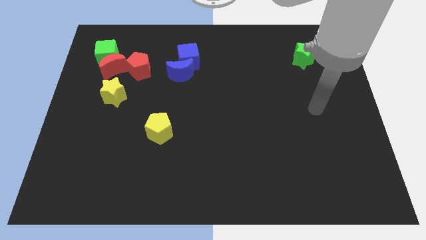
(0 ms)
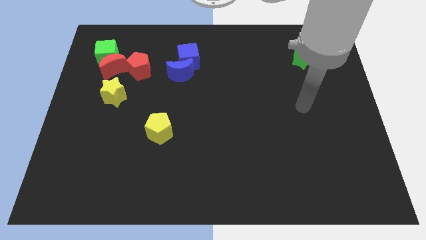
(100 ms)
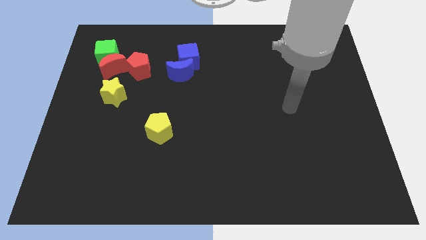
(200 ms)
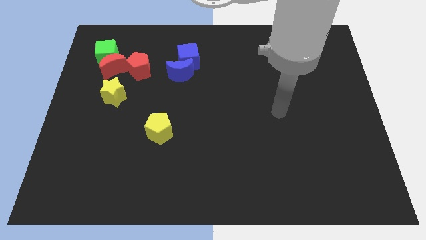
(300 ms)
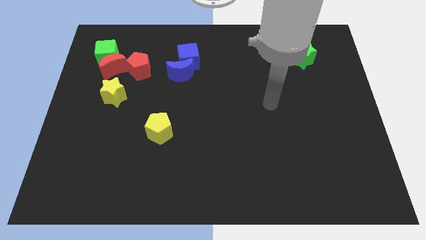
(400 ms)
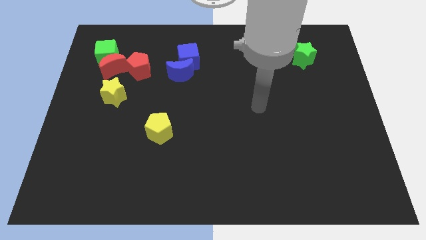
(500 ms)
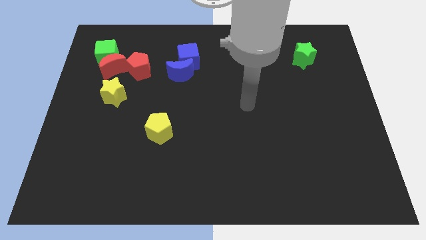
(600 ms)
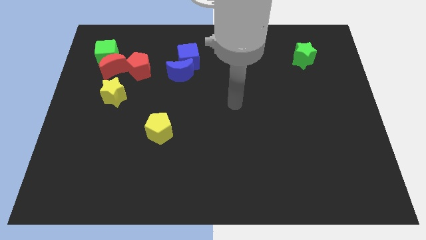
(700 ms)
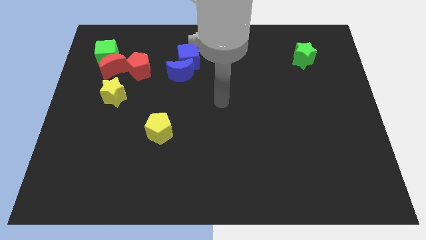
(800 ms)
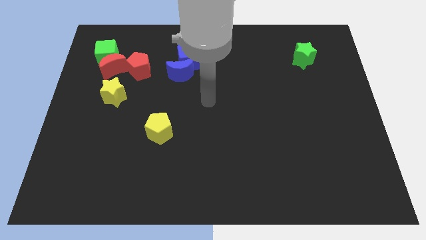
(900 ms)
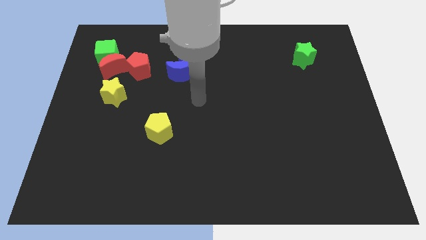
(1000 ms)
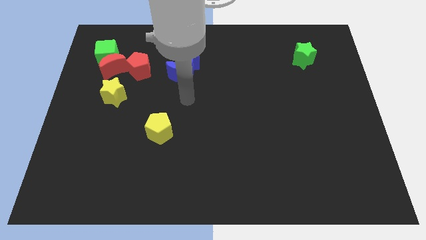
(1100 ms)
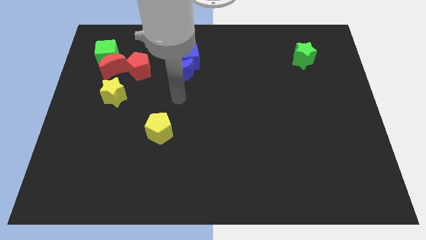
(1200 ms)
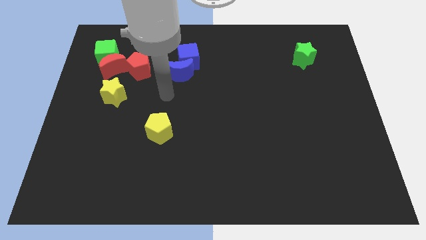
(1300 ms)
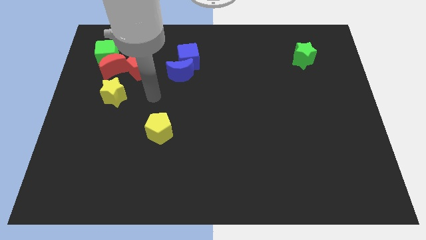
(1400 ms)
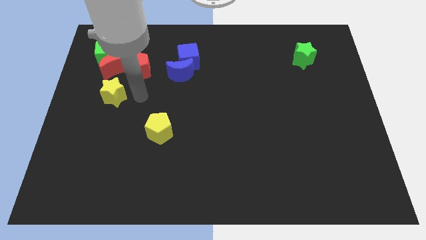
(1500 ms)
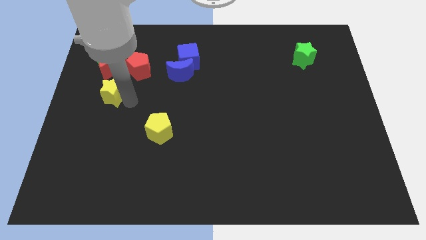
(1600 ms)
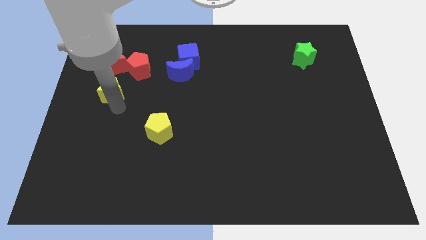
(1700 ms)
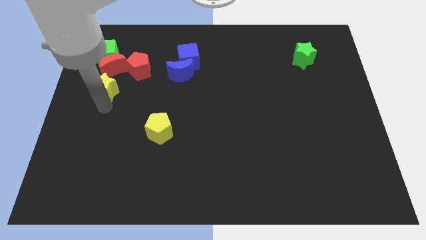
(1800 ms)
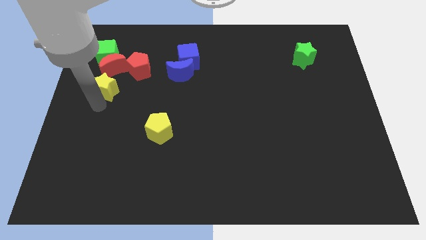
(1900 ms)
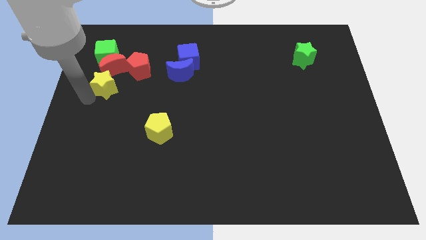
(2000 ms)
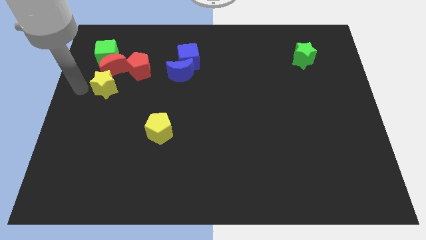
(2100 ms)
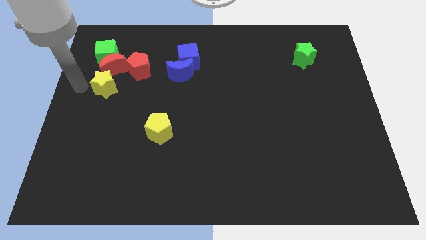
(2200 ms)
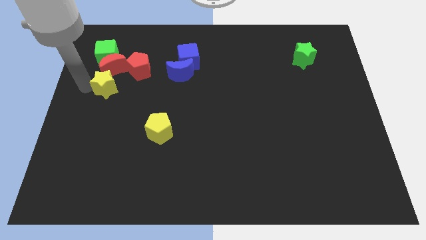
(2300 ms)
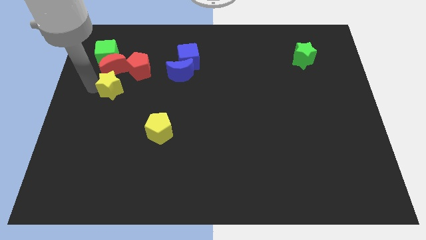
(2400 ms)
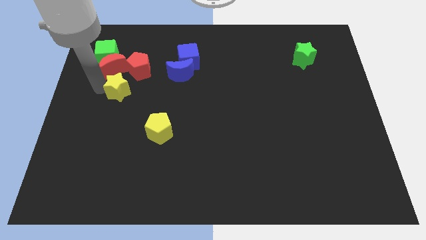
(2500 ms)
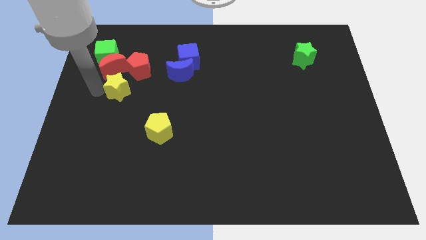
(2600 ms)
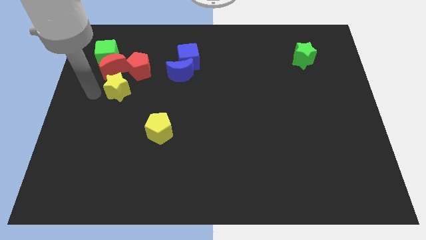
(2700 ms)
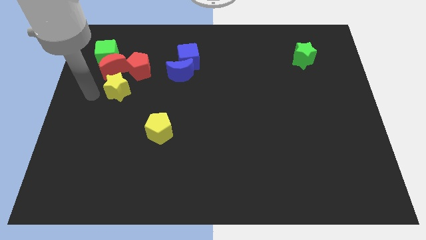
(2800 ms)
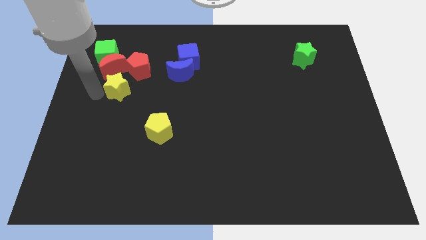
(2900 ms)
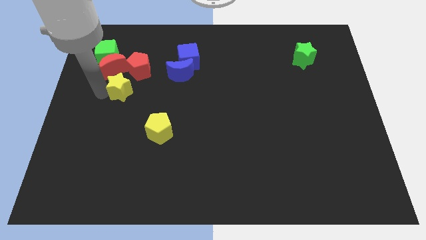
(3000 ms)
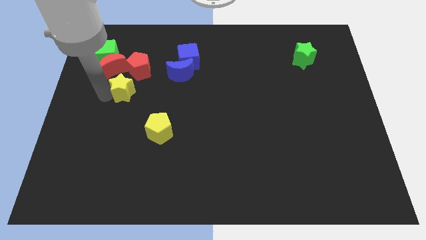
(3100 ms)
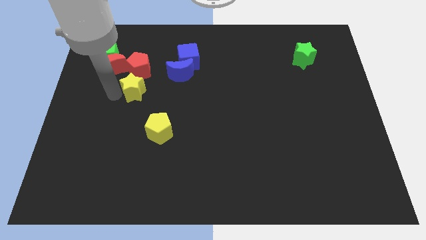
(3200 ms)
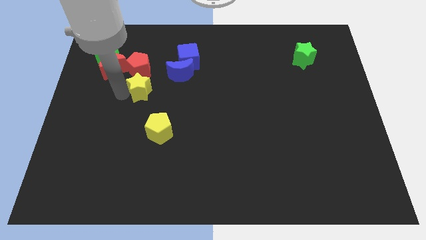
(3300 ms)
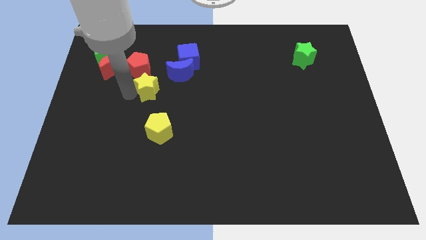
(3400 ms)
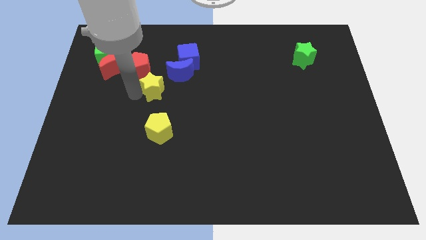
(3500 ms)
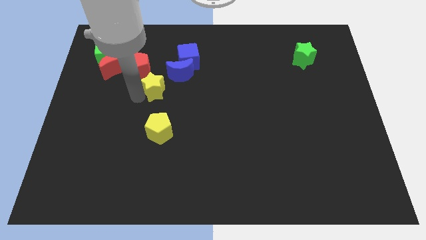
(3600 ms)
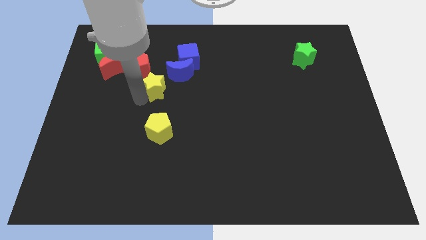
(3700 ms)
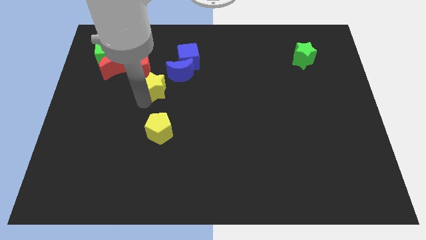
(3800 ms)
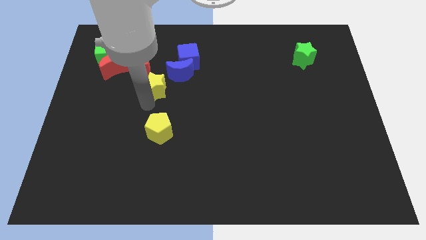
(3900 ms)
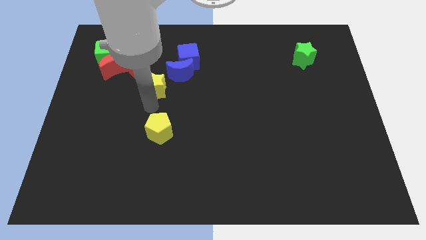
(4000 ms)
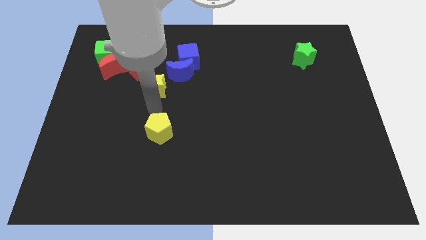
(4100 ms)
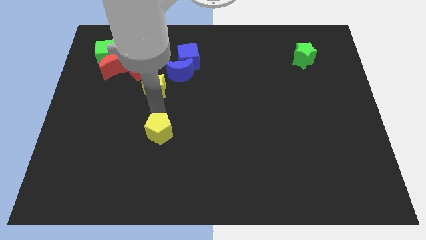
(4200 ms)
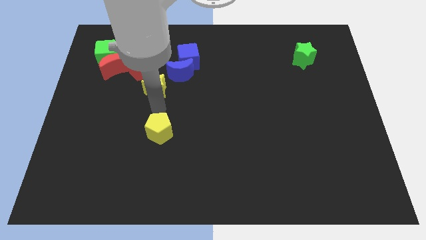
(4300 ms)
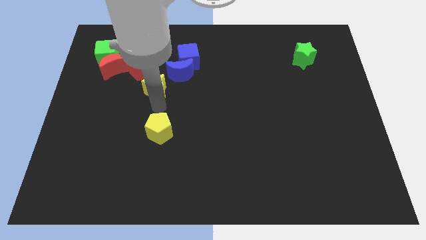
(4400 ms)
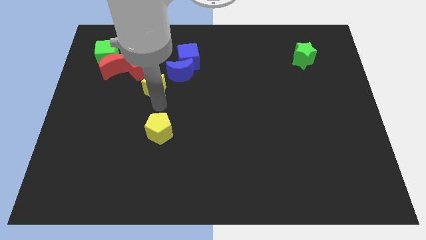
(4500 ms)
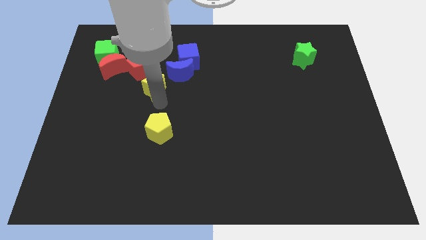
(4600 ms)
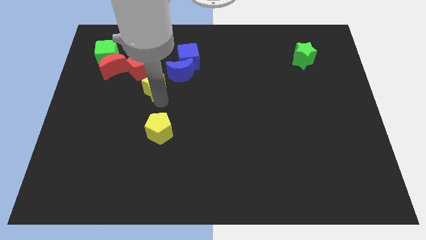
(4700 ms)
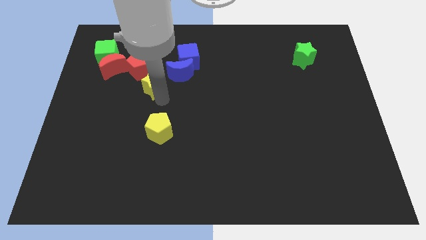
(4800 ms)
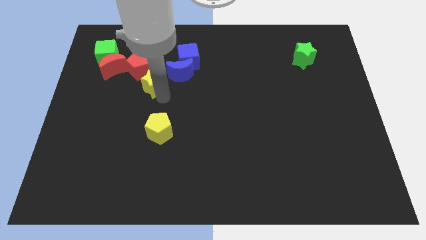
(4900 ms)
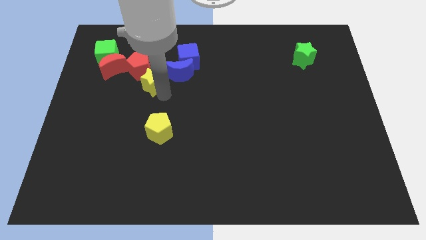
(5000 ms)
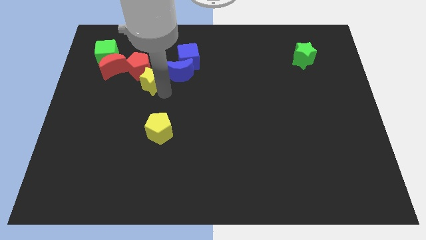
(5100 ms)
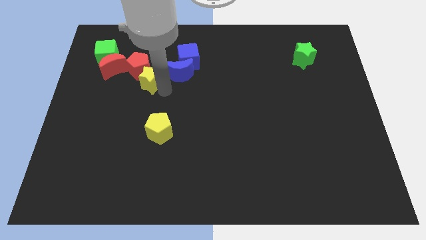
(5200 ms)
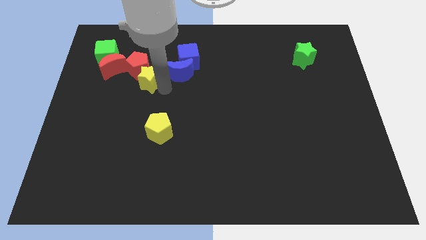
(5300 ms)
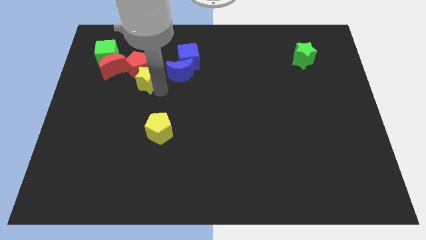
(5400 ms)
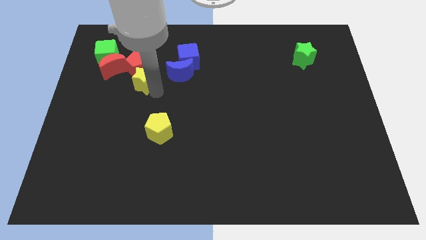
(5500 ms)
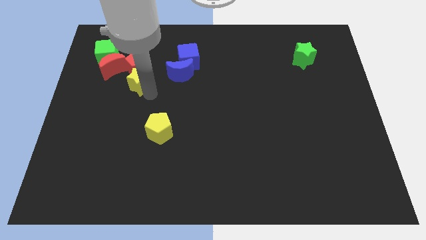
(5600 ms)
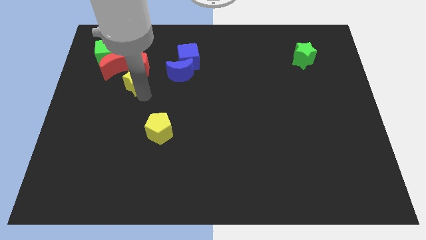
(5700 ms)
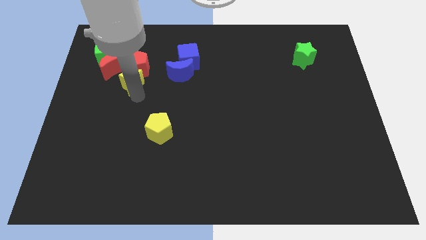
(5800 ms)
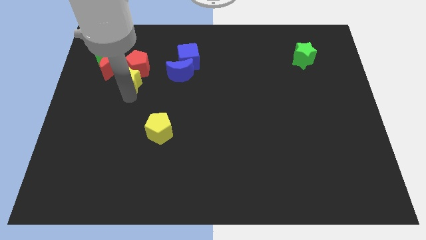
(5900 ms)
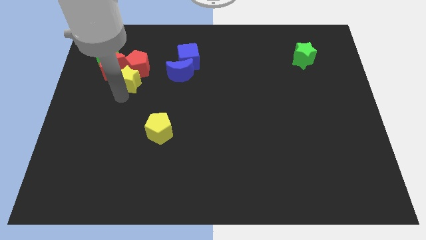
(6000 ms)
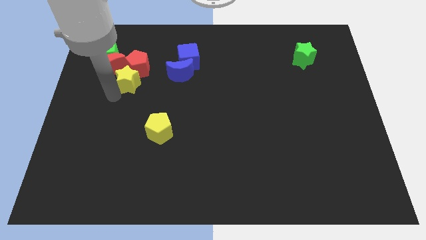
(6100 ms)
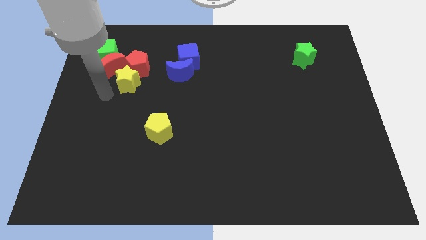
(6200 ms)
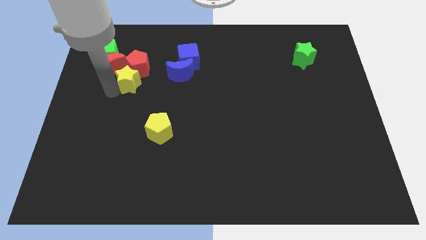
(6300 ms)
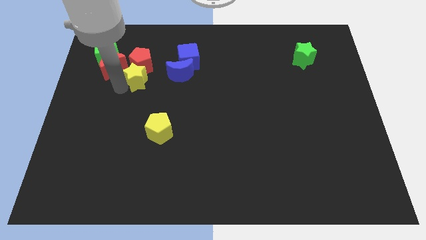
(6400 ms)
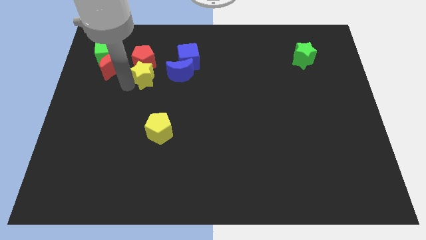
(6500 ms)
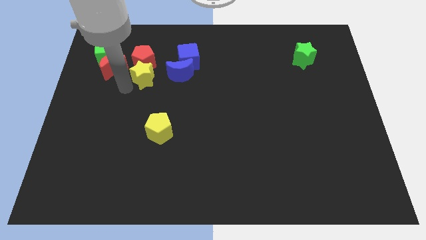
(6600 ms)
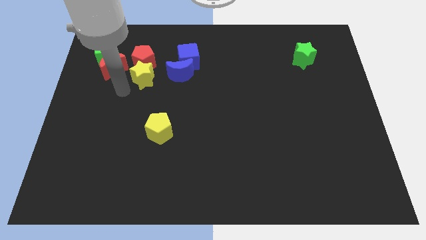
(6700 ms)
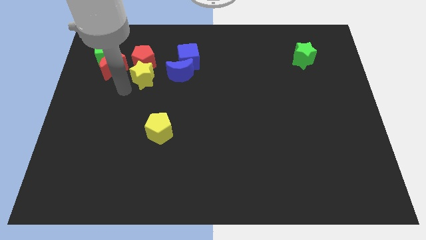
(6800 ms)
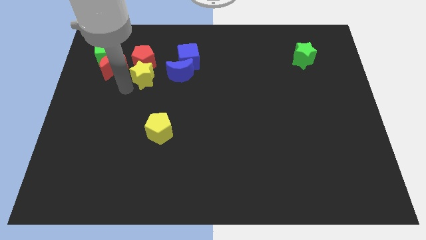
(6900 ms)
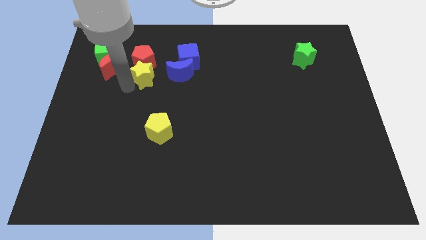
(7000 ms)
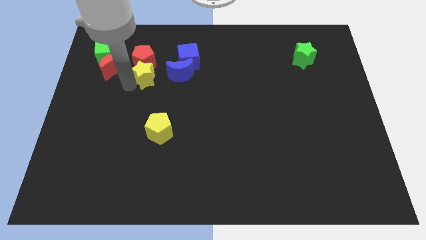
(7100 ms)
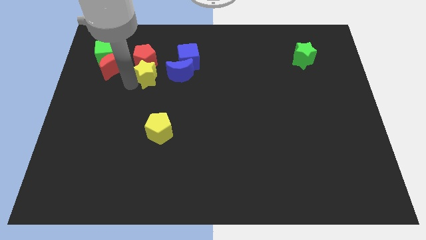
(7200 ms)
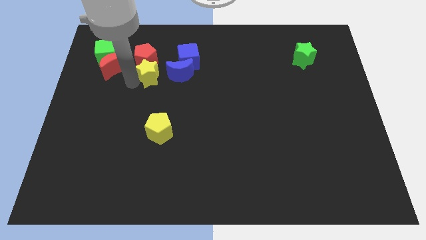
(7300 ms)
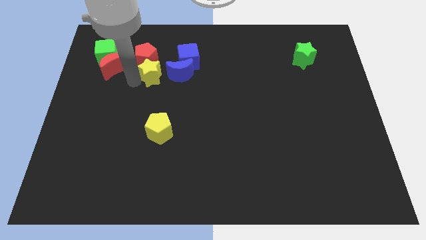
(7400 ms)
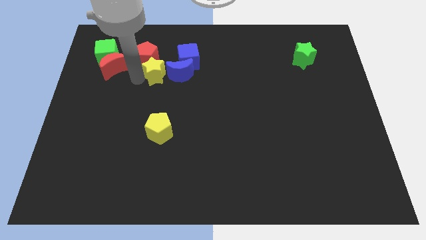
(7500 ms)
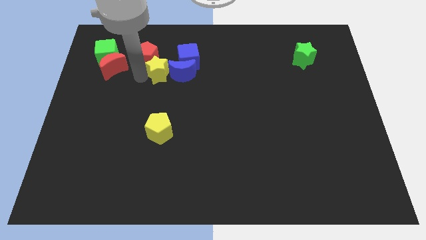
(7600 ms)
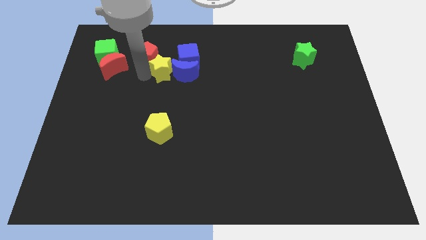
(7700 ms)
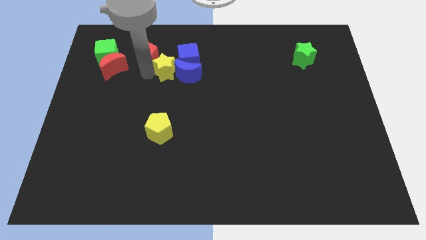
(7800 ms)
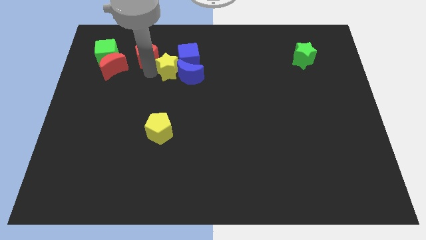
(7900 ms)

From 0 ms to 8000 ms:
push the yellow star next to the blue cube

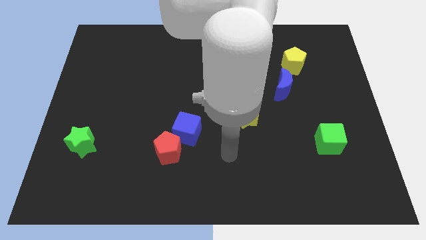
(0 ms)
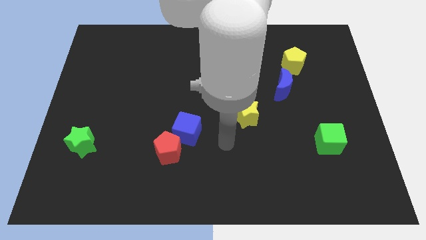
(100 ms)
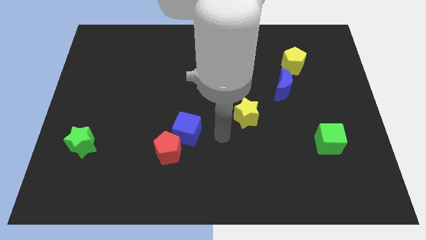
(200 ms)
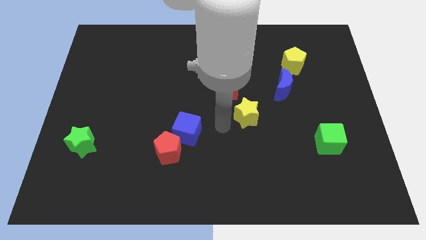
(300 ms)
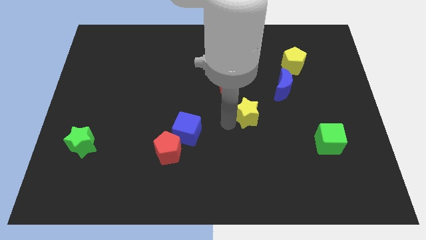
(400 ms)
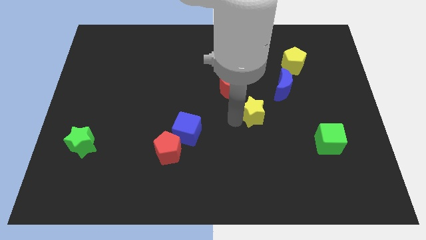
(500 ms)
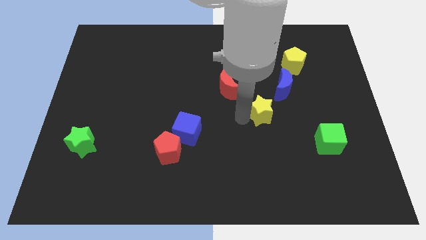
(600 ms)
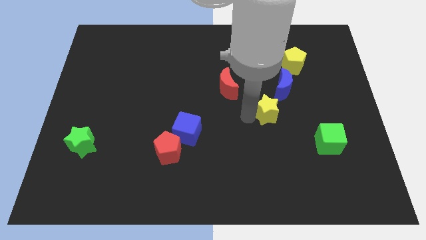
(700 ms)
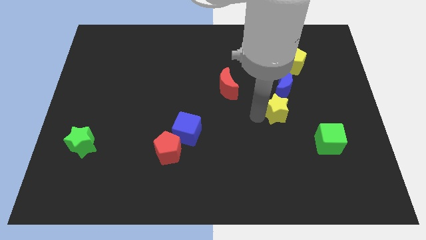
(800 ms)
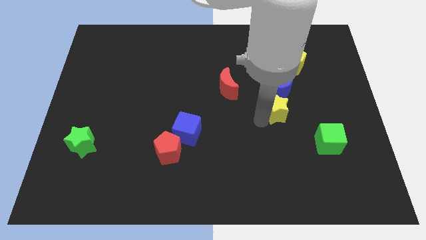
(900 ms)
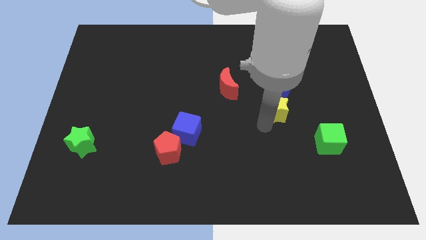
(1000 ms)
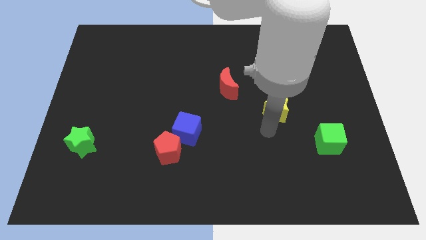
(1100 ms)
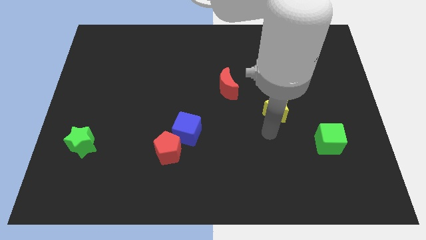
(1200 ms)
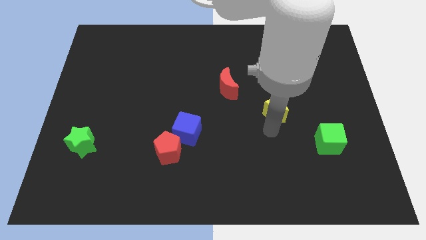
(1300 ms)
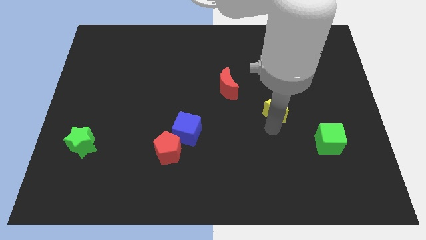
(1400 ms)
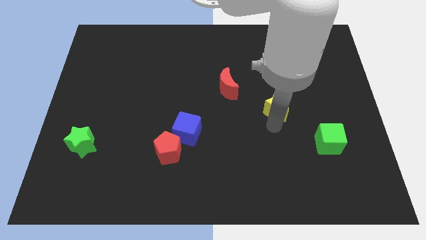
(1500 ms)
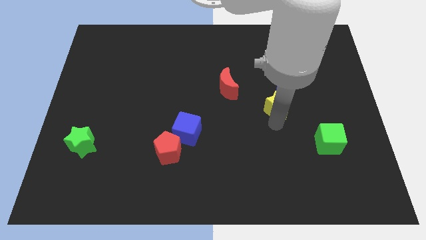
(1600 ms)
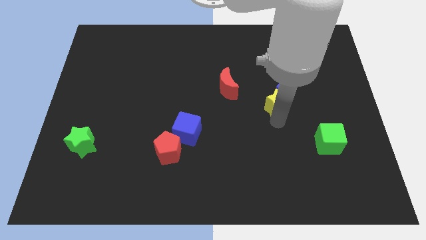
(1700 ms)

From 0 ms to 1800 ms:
put the yellow star to the blue moon
